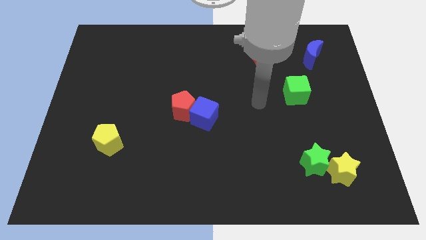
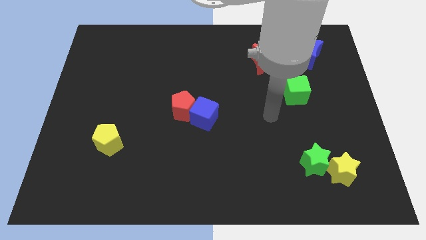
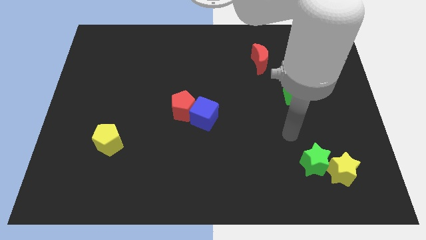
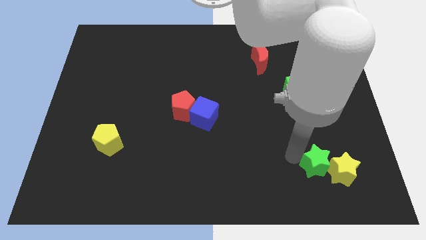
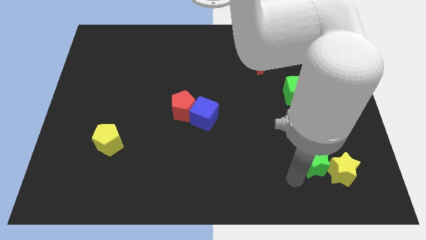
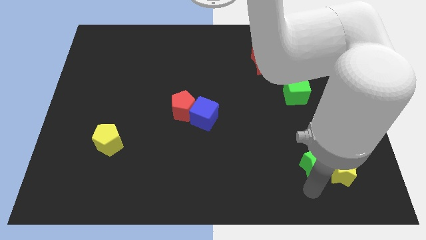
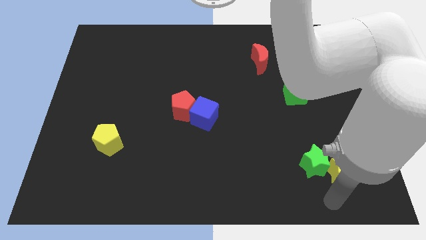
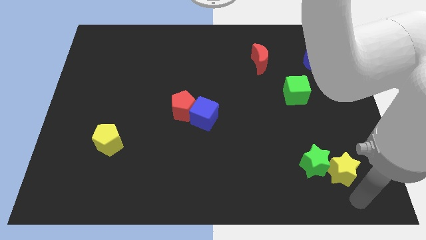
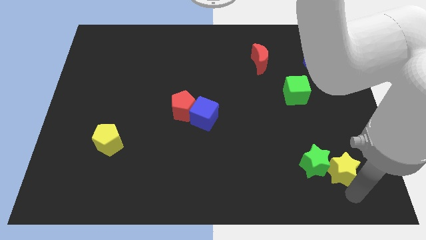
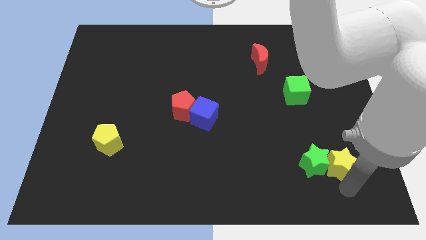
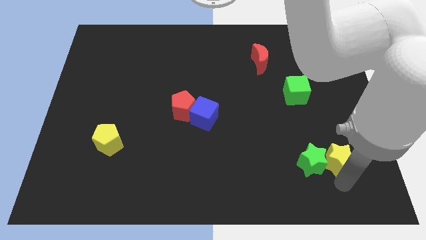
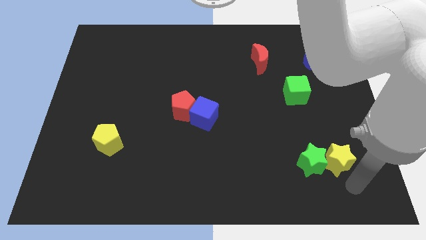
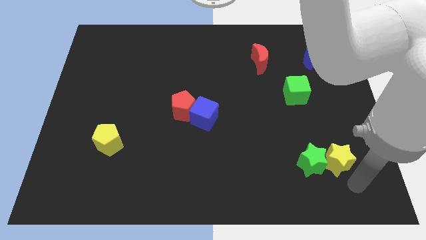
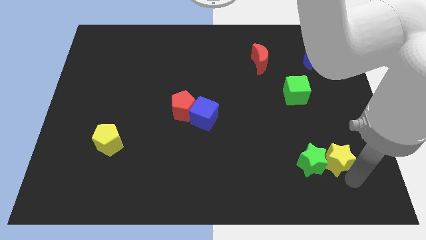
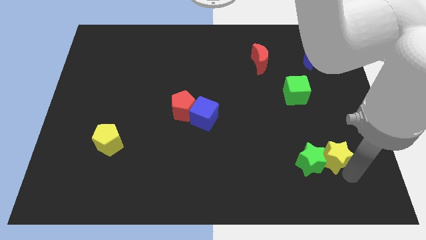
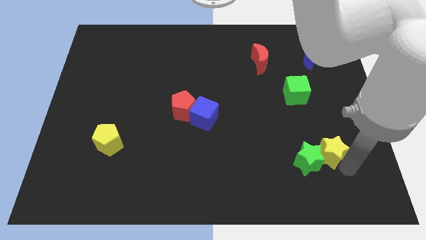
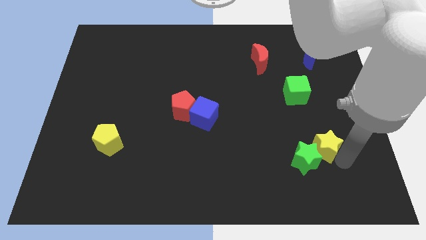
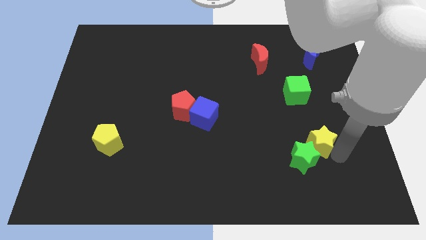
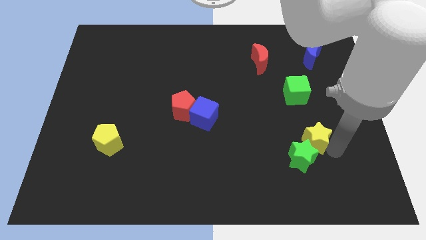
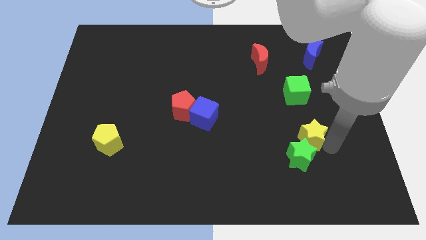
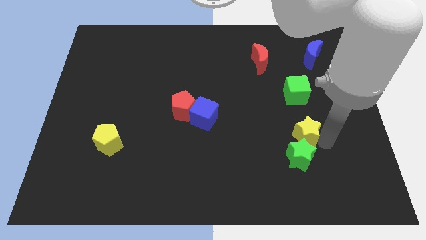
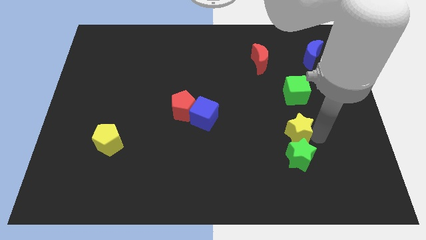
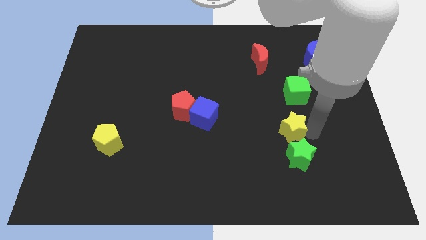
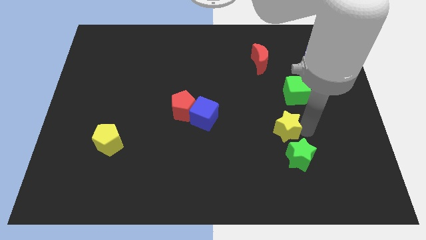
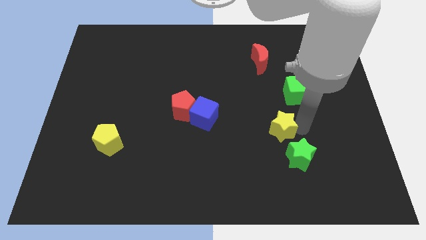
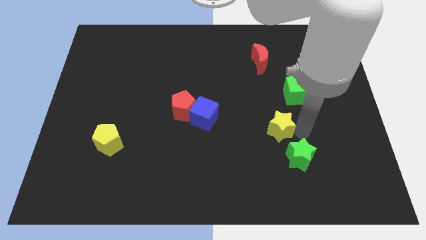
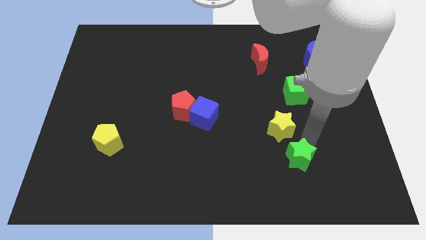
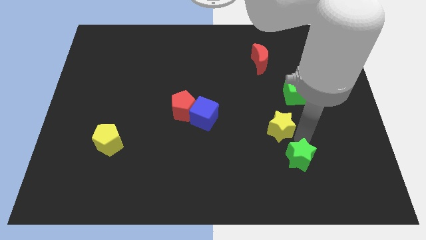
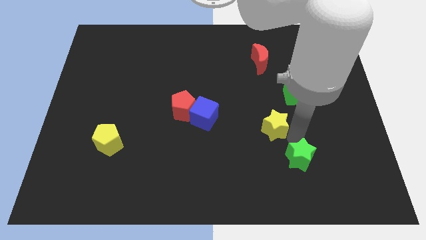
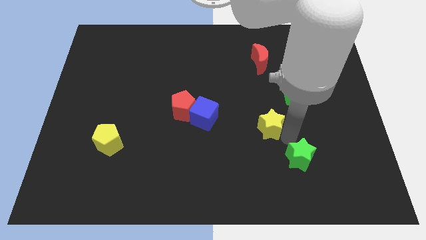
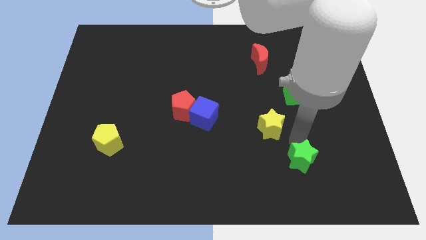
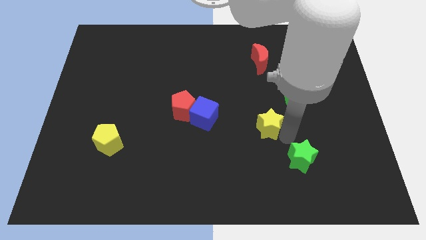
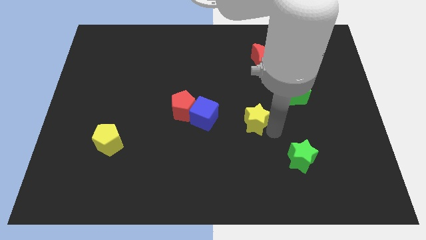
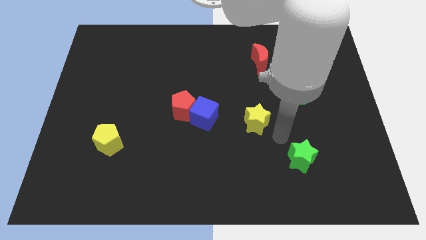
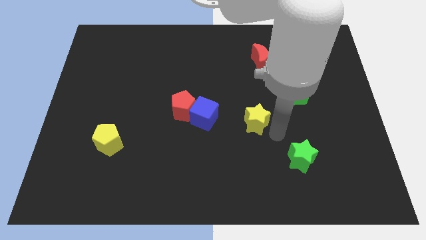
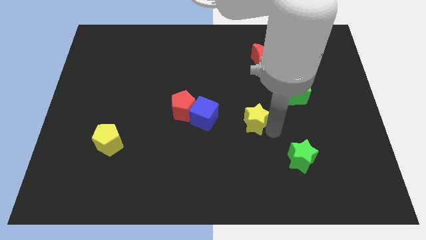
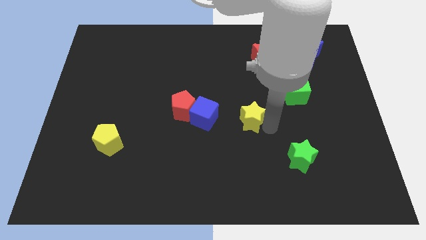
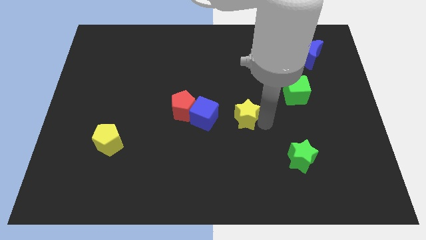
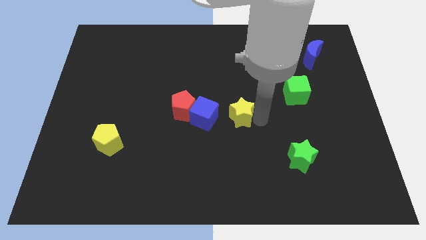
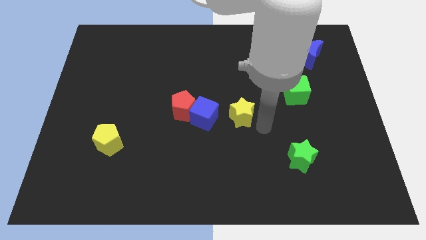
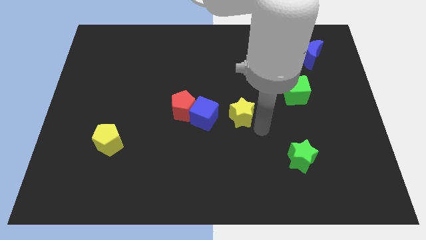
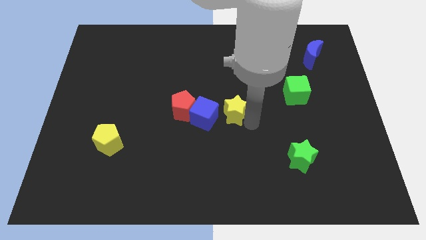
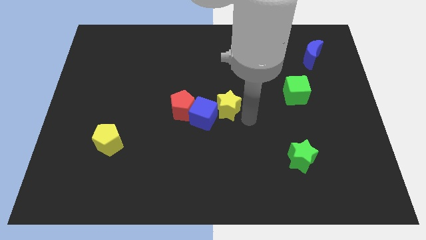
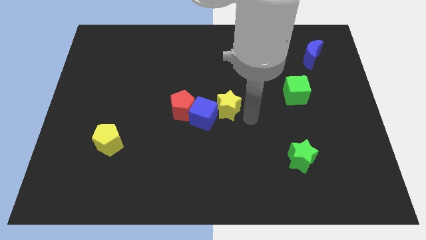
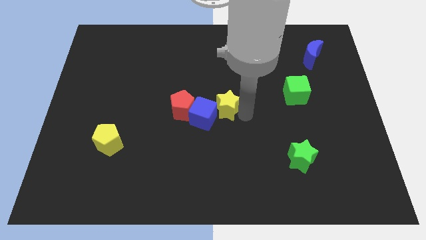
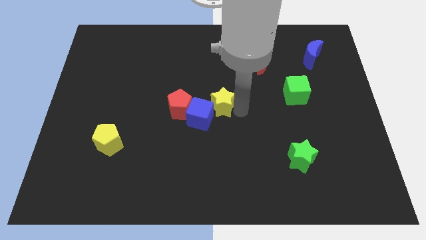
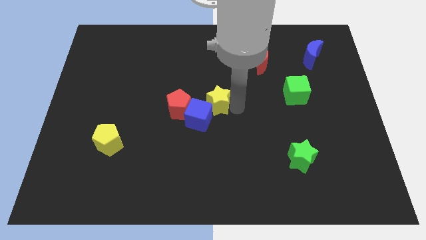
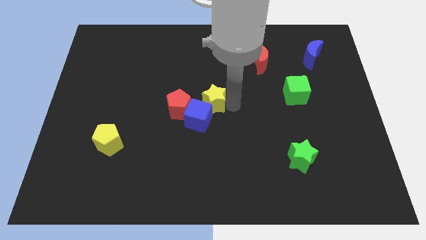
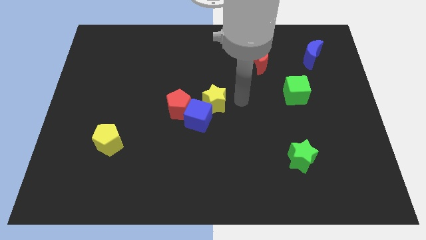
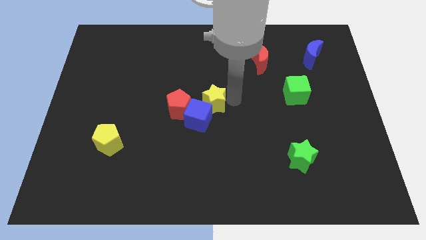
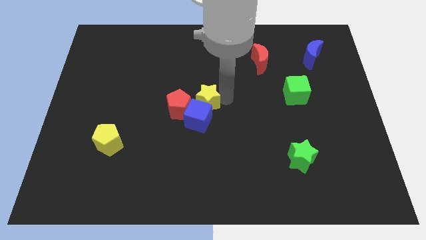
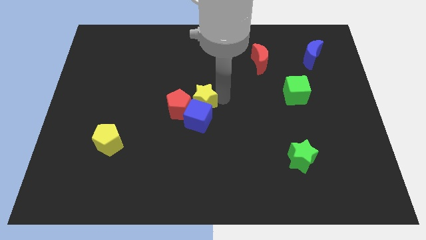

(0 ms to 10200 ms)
push the yellow star to the red pentagon

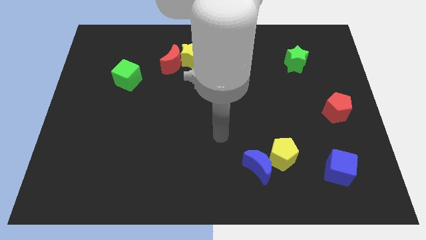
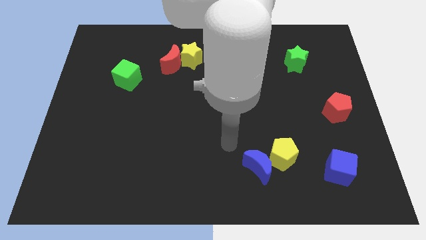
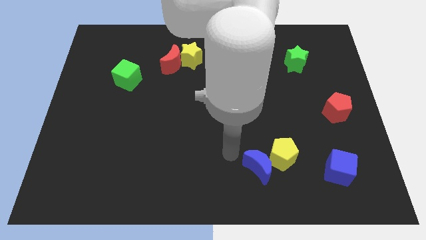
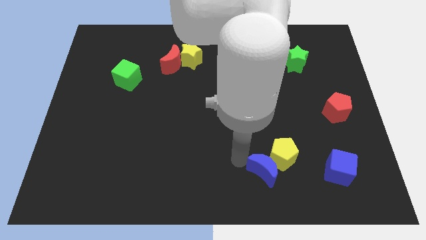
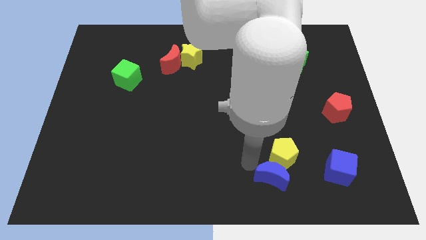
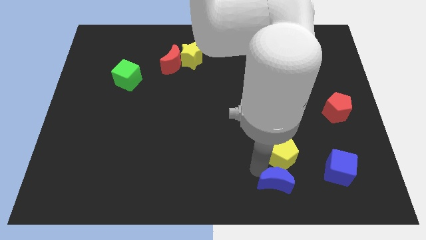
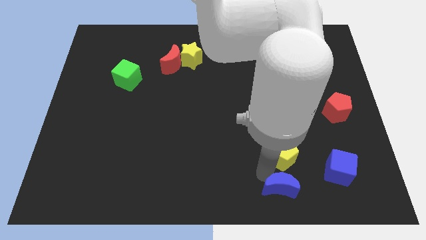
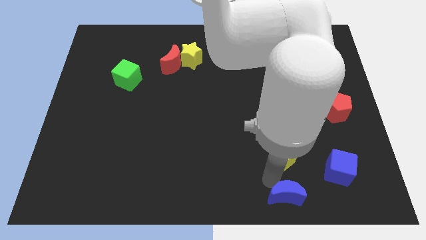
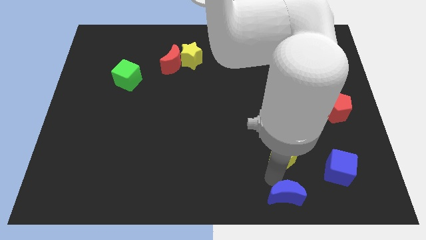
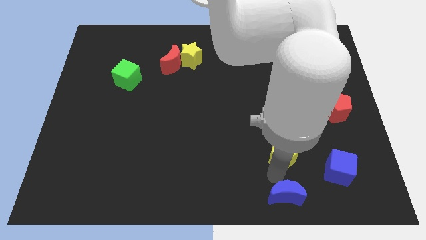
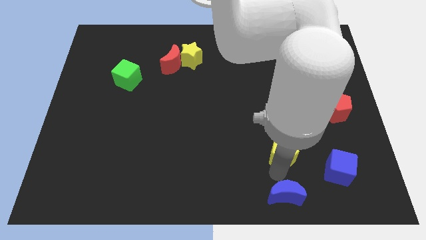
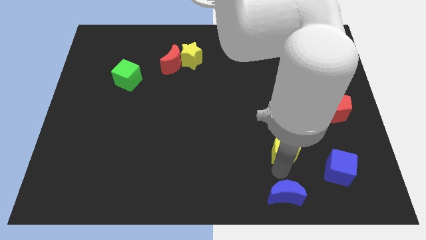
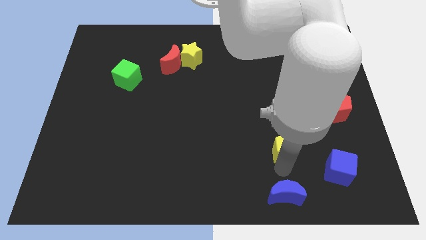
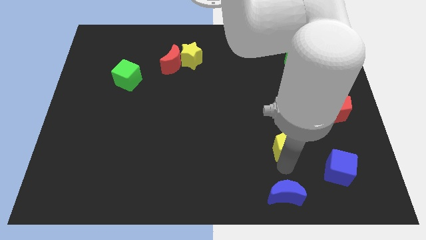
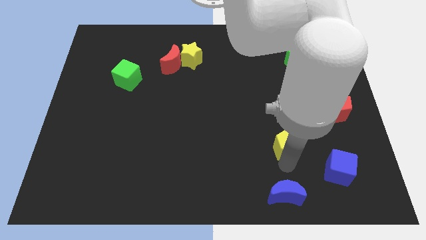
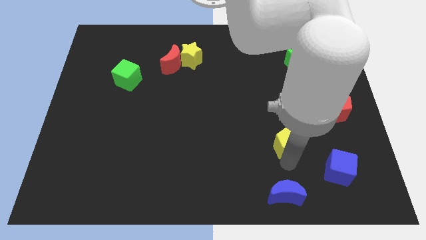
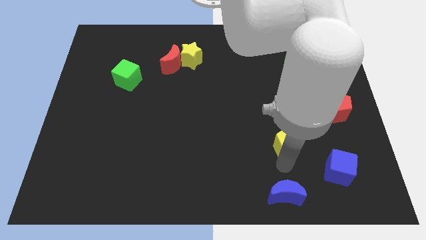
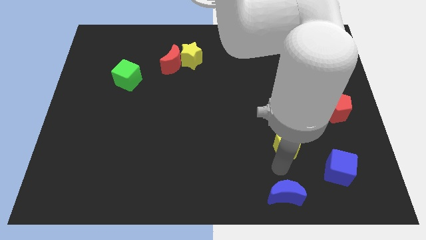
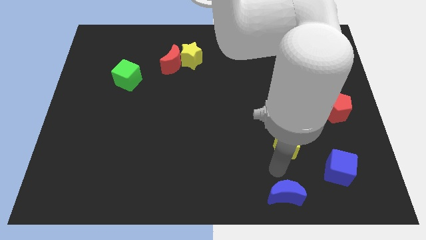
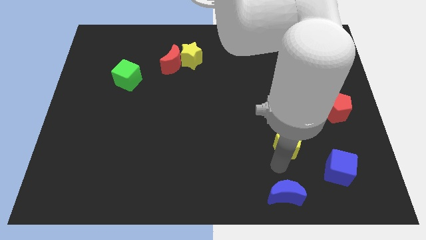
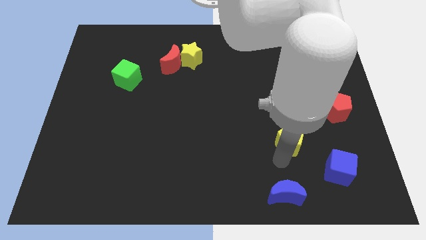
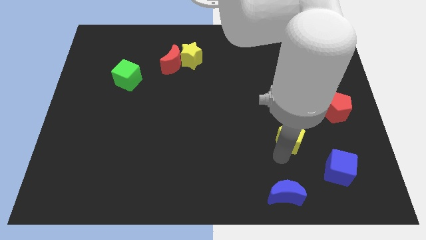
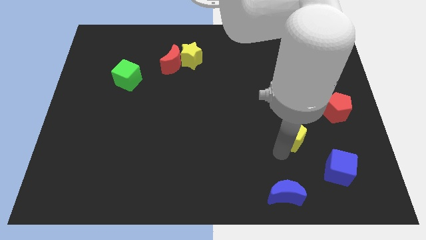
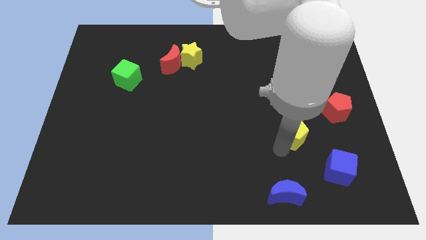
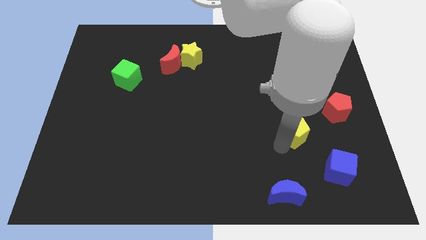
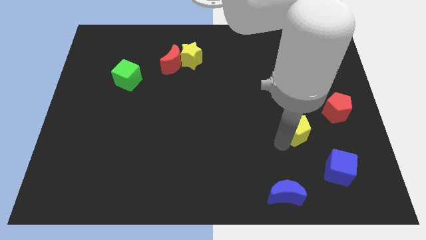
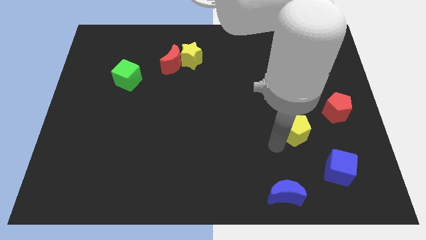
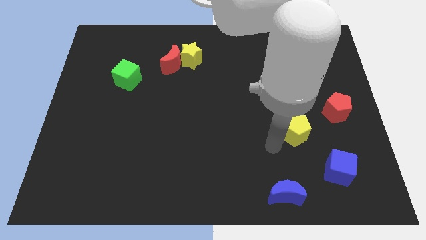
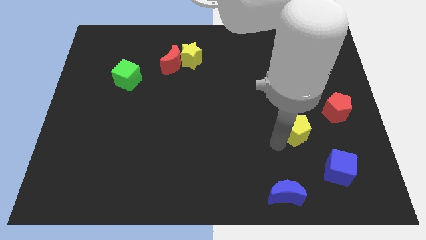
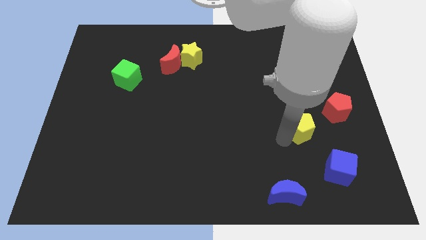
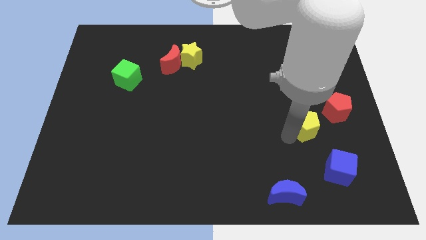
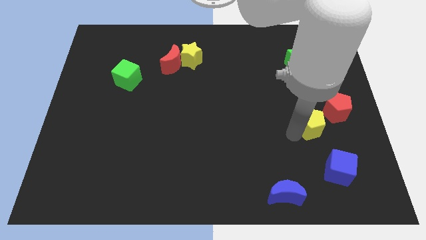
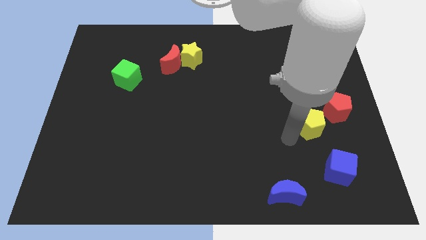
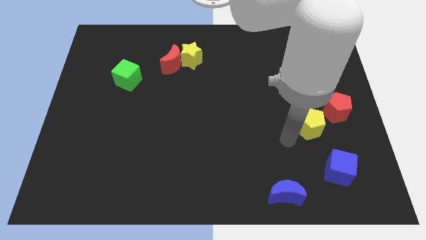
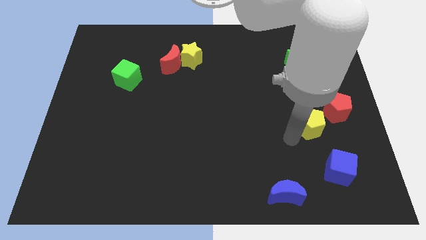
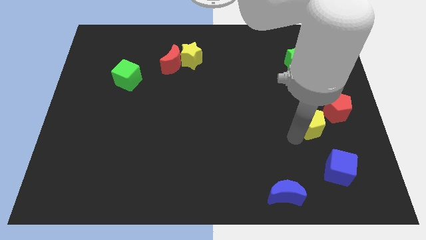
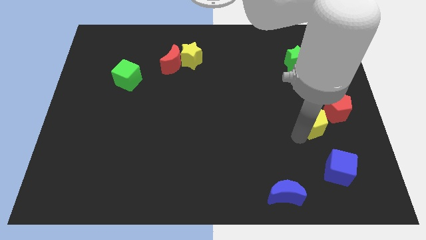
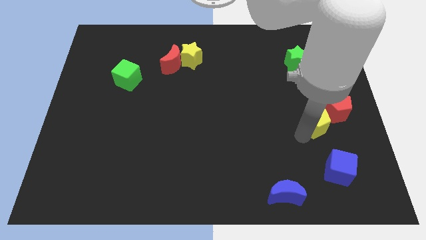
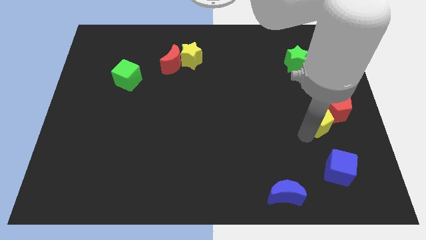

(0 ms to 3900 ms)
push the yellow pentagon close to the red pentagon
